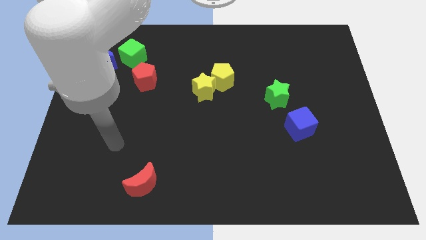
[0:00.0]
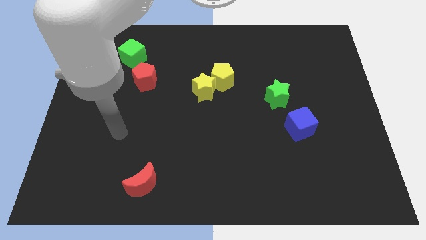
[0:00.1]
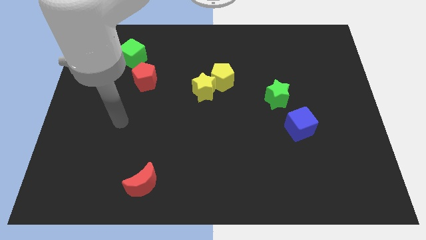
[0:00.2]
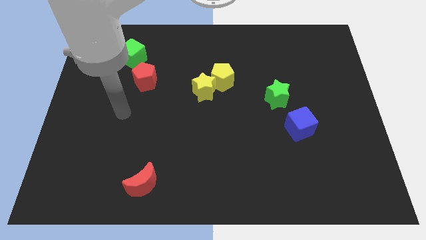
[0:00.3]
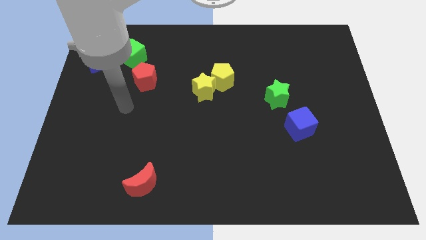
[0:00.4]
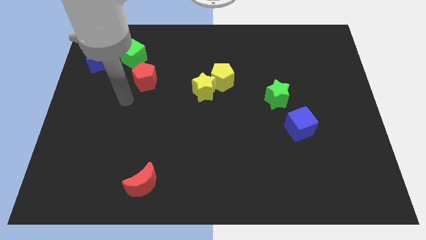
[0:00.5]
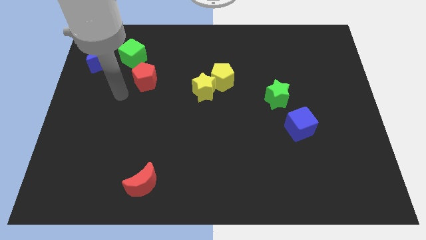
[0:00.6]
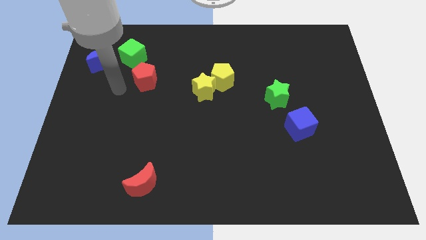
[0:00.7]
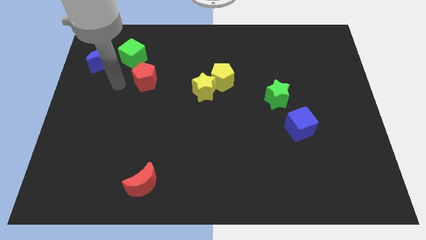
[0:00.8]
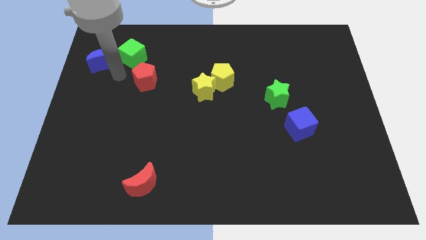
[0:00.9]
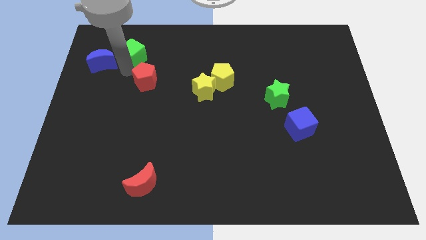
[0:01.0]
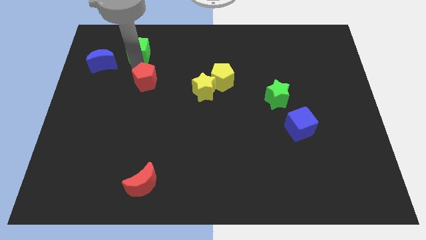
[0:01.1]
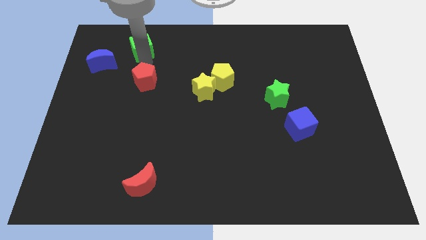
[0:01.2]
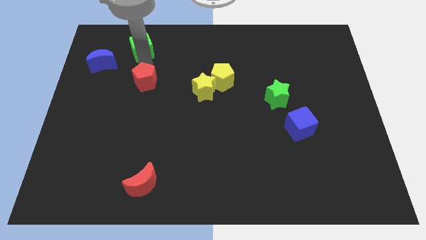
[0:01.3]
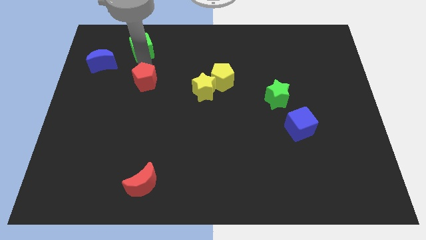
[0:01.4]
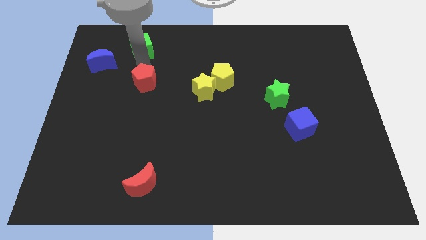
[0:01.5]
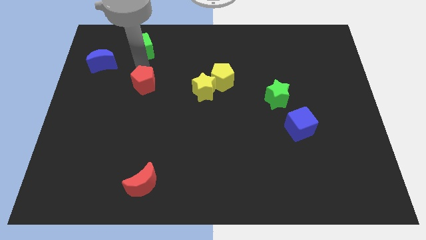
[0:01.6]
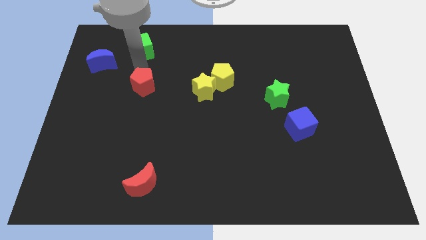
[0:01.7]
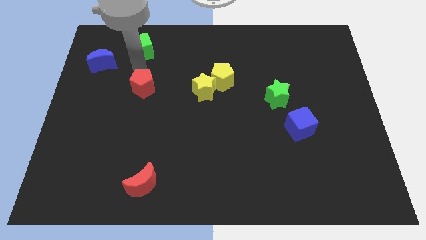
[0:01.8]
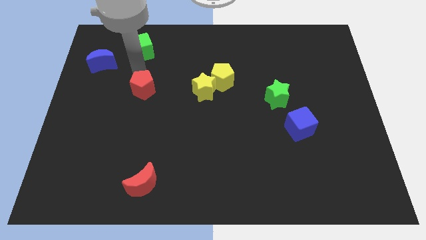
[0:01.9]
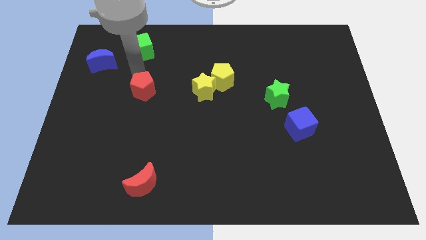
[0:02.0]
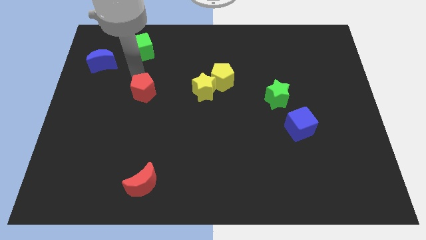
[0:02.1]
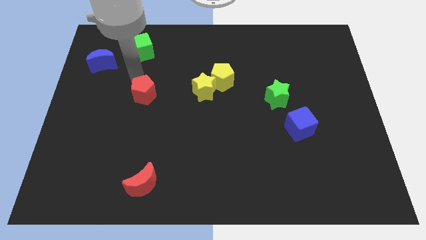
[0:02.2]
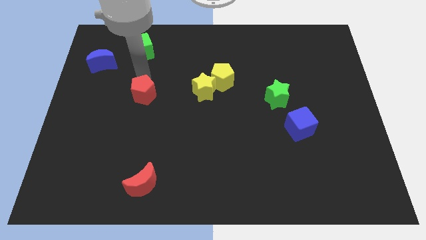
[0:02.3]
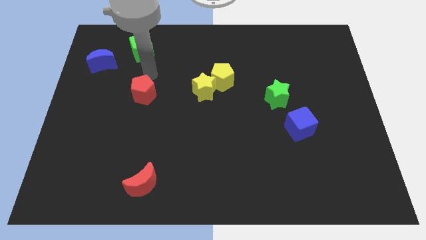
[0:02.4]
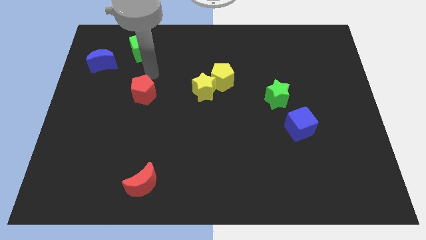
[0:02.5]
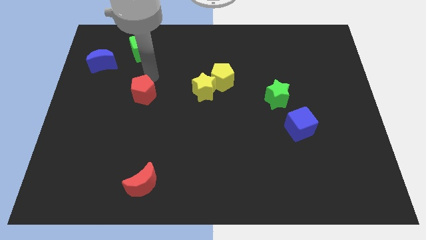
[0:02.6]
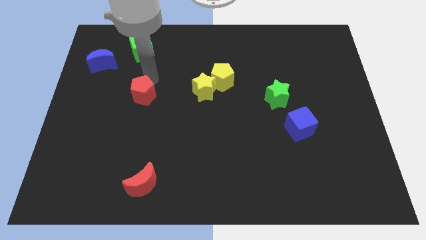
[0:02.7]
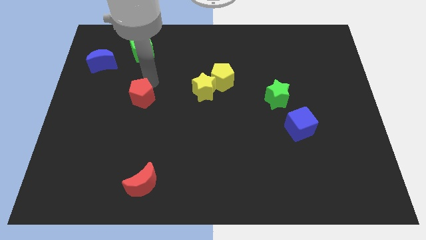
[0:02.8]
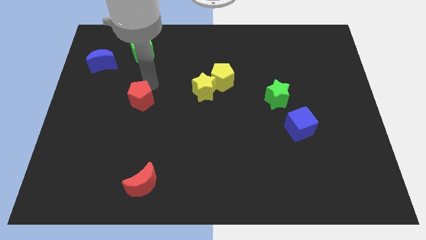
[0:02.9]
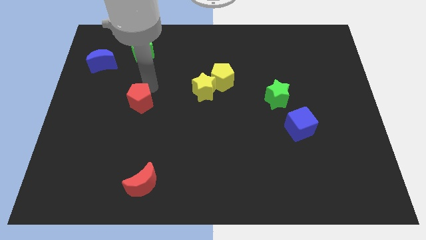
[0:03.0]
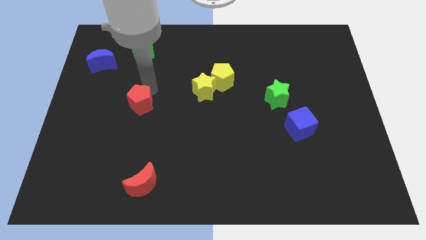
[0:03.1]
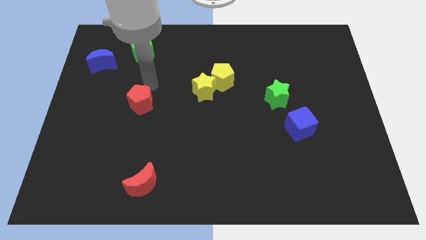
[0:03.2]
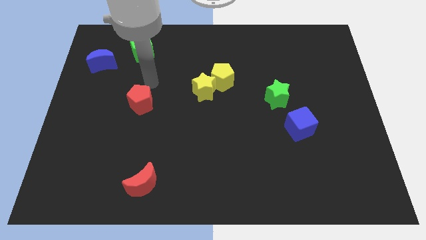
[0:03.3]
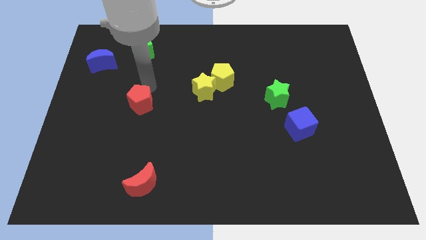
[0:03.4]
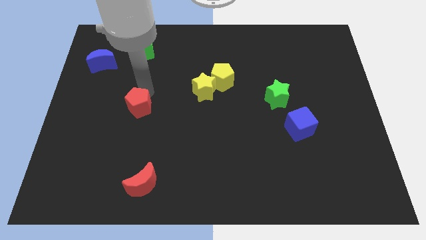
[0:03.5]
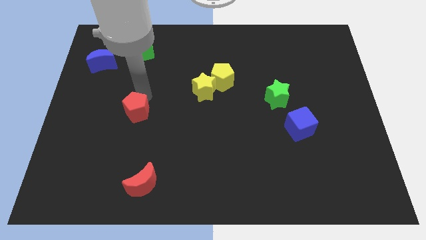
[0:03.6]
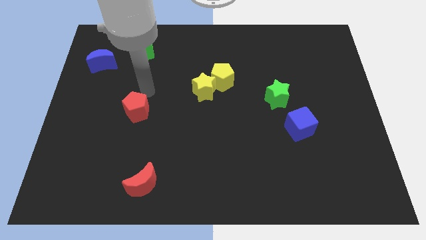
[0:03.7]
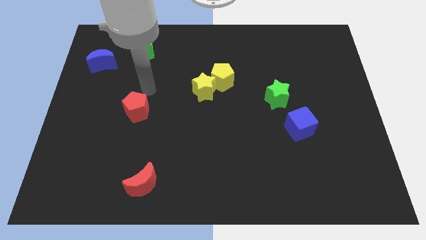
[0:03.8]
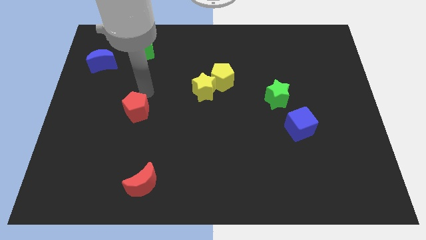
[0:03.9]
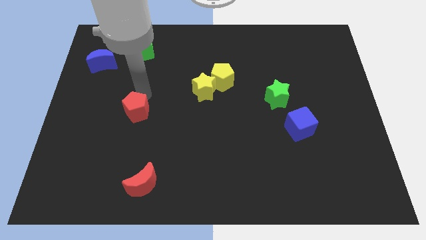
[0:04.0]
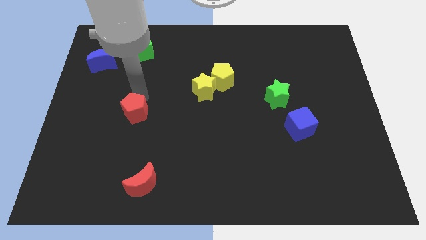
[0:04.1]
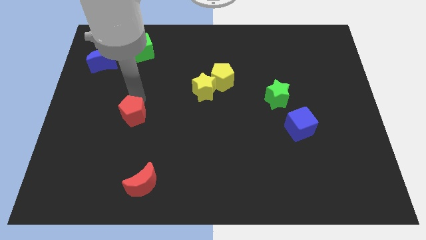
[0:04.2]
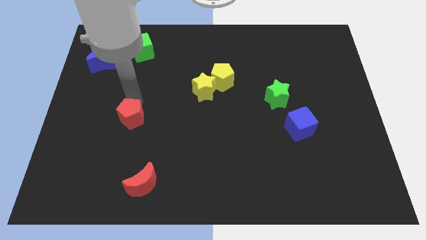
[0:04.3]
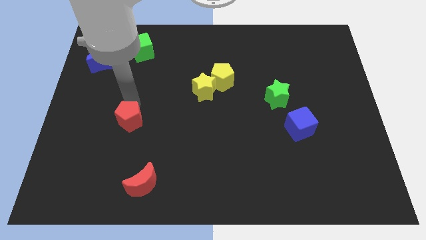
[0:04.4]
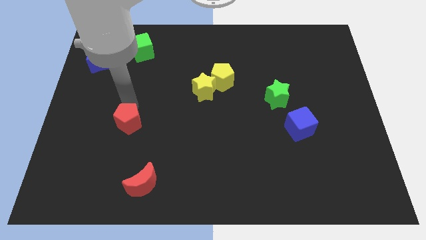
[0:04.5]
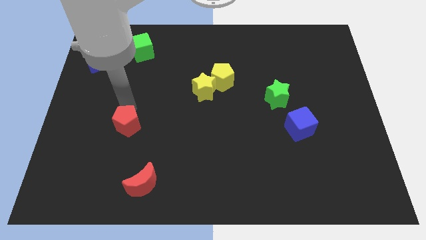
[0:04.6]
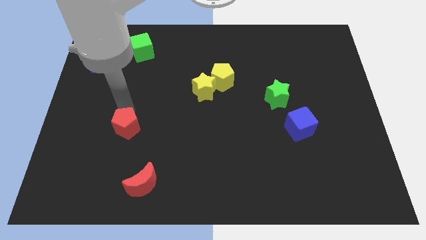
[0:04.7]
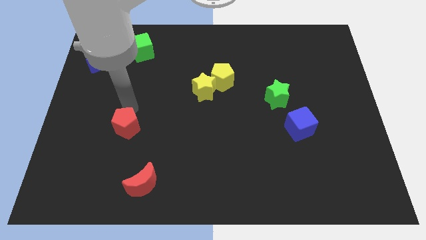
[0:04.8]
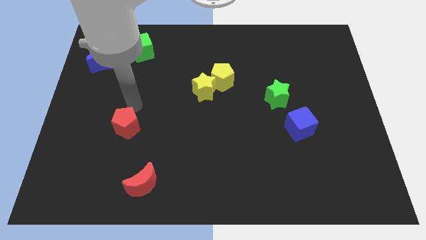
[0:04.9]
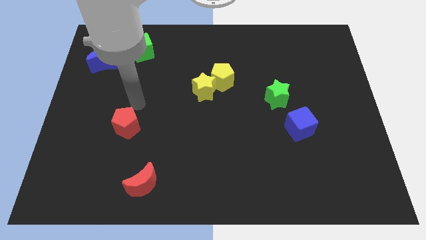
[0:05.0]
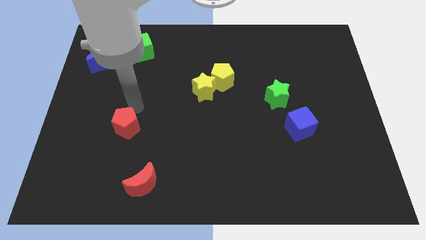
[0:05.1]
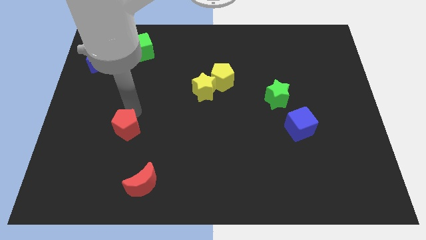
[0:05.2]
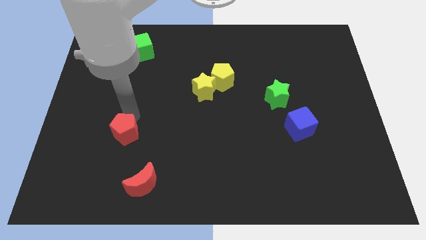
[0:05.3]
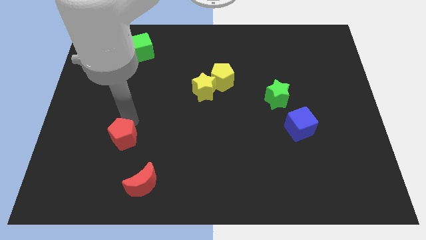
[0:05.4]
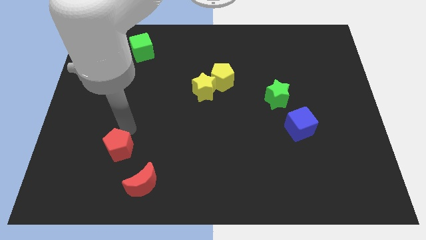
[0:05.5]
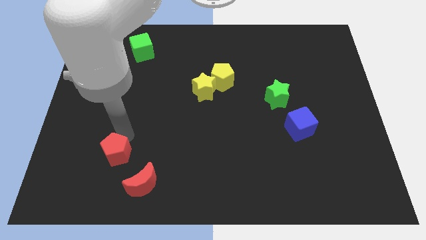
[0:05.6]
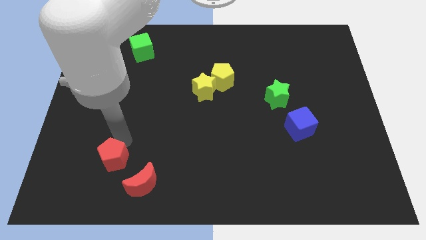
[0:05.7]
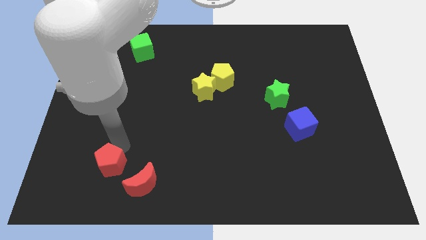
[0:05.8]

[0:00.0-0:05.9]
move the red pentagon to the left of the red moon

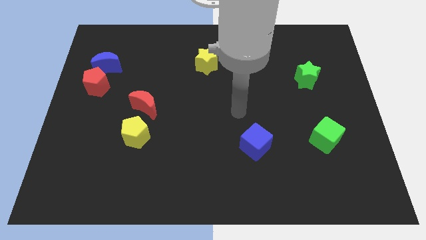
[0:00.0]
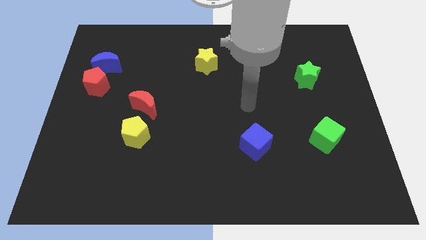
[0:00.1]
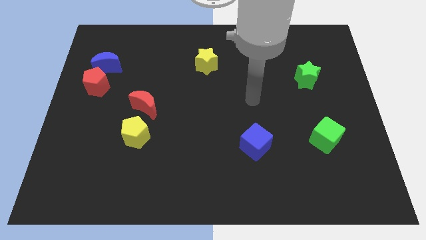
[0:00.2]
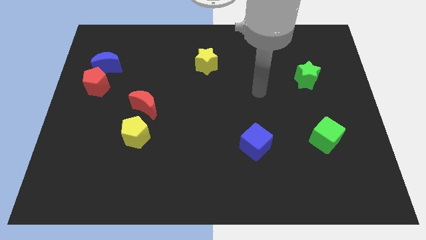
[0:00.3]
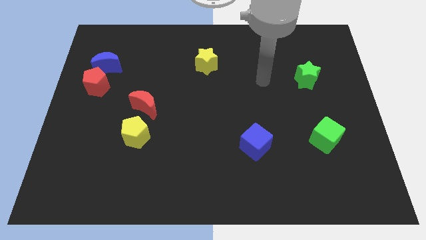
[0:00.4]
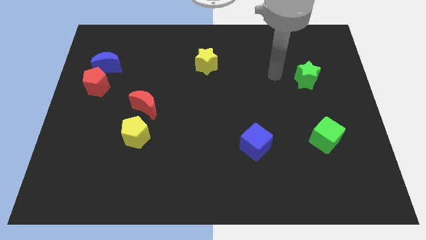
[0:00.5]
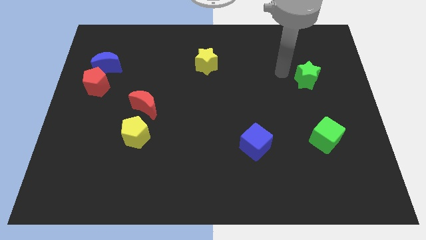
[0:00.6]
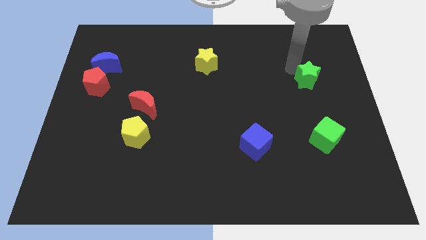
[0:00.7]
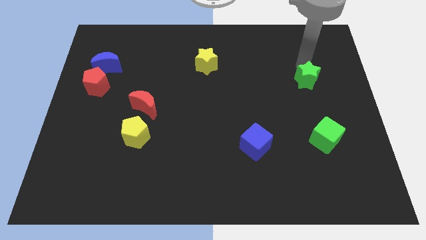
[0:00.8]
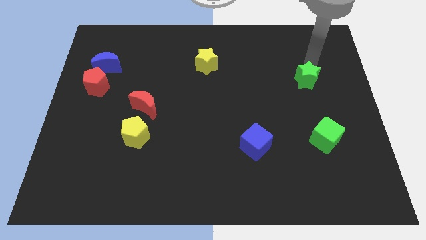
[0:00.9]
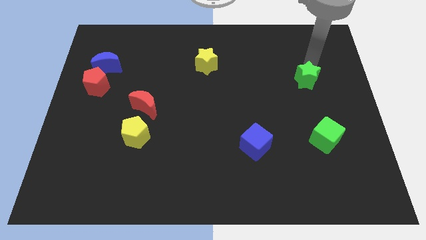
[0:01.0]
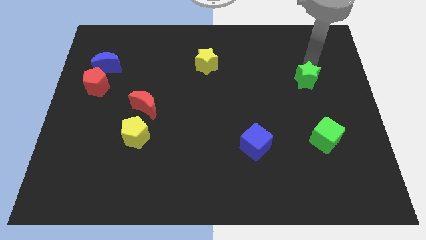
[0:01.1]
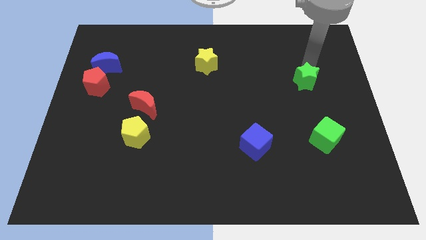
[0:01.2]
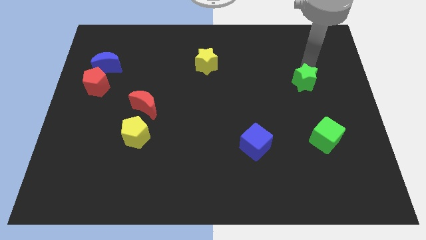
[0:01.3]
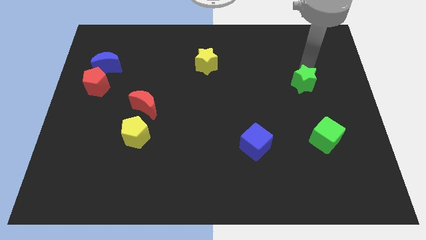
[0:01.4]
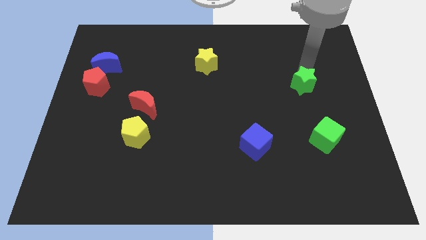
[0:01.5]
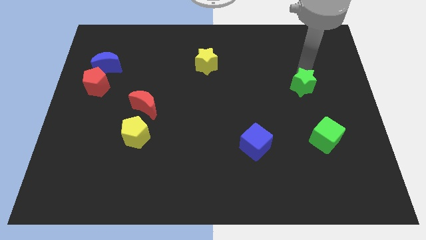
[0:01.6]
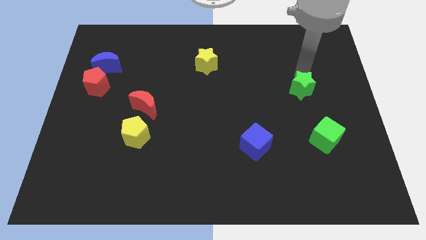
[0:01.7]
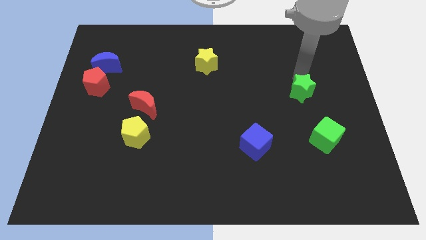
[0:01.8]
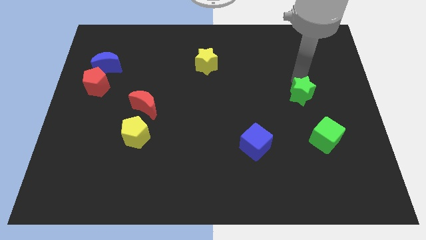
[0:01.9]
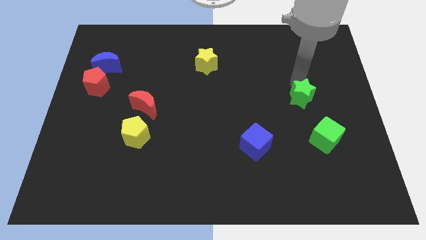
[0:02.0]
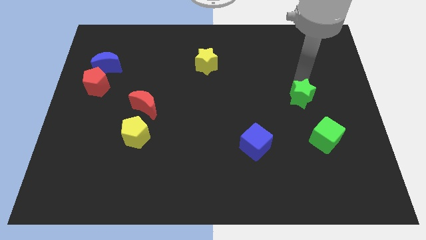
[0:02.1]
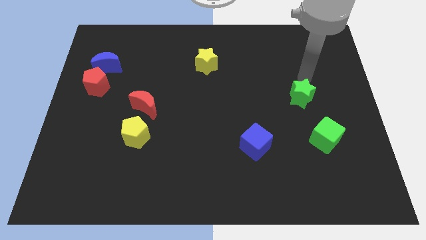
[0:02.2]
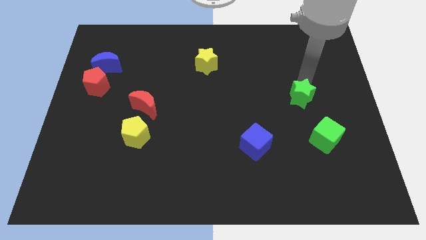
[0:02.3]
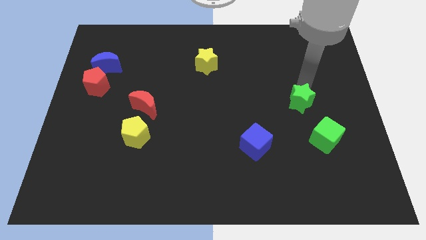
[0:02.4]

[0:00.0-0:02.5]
put the green star diagonally up and to the left of the green cube
